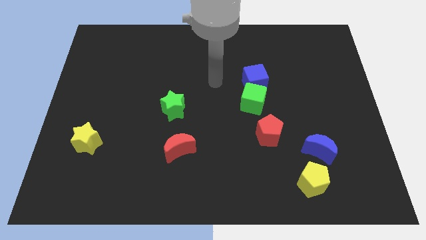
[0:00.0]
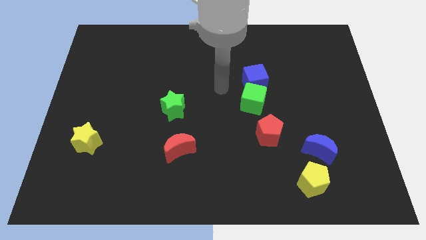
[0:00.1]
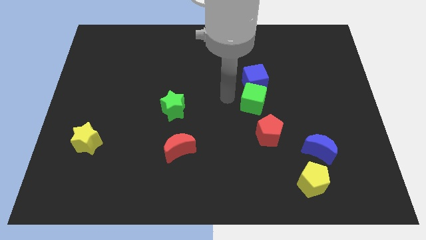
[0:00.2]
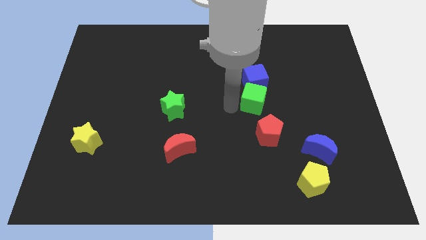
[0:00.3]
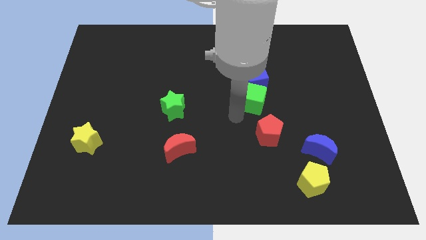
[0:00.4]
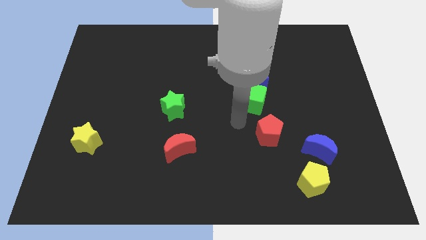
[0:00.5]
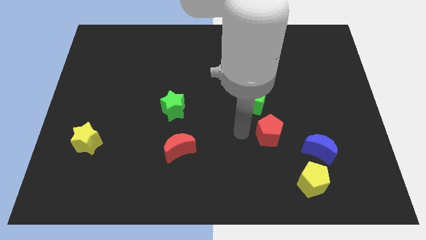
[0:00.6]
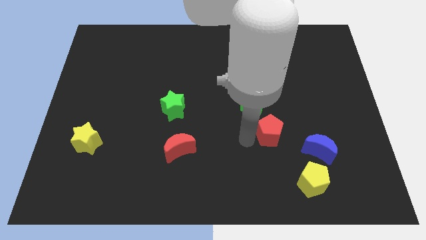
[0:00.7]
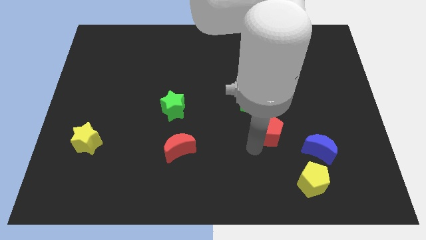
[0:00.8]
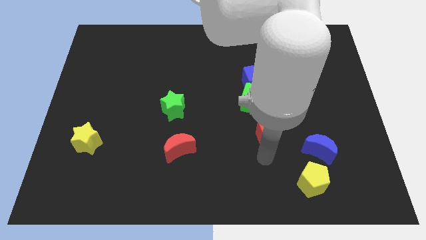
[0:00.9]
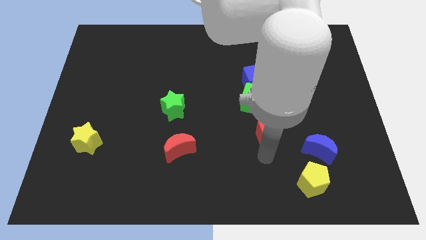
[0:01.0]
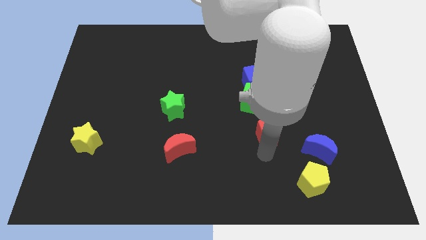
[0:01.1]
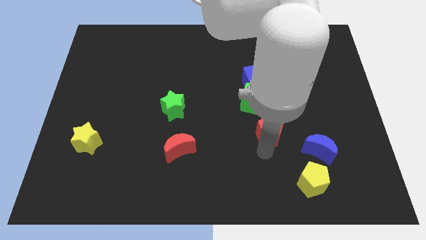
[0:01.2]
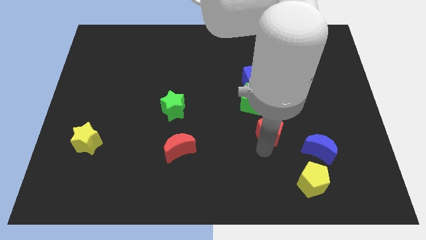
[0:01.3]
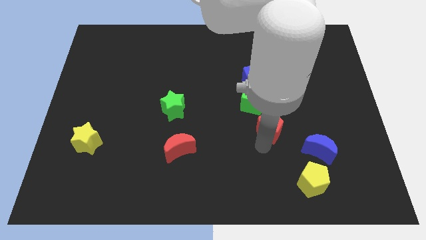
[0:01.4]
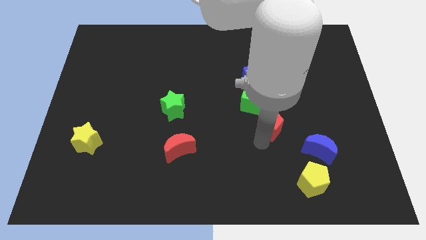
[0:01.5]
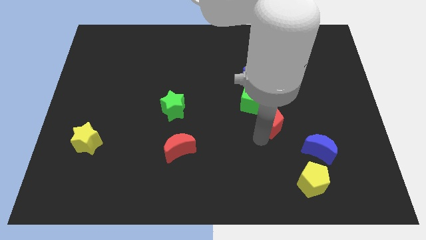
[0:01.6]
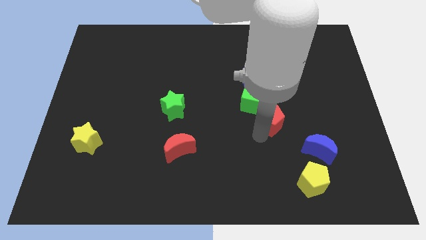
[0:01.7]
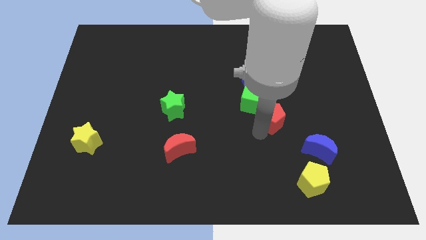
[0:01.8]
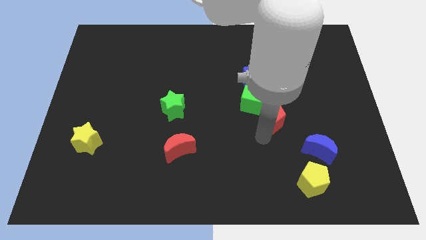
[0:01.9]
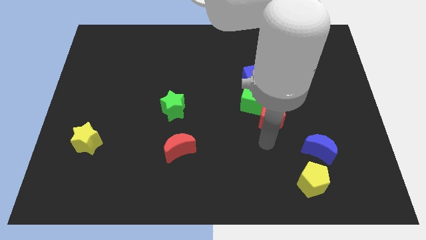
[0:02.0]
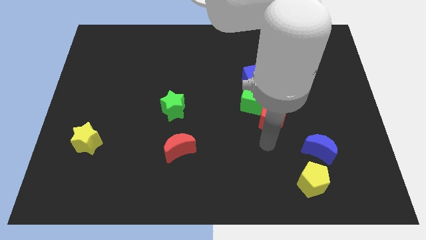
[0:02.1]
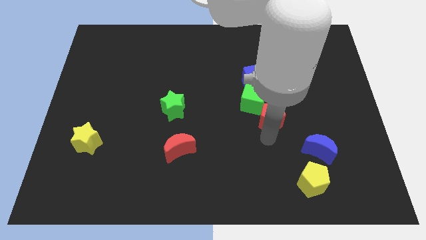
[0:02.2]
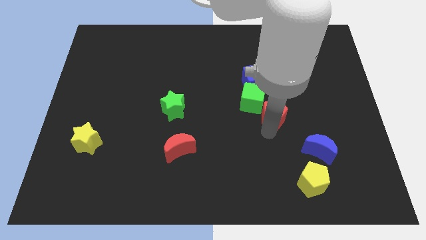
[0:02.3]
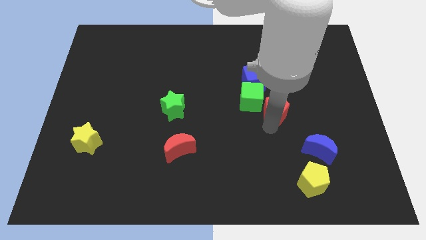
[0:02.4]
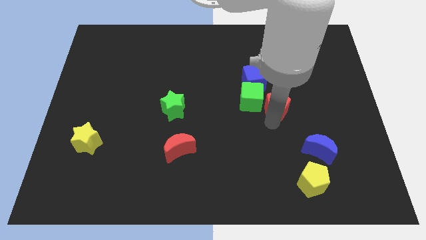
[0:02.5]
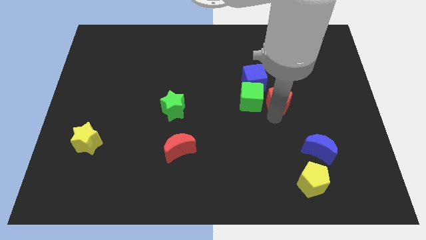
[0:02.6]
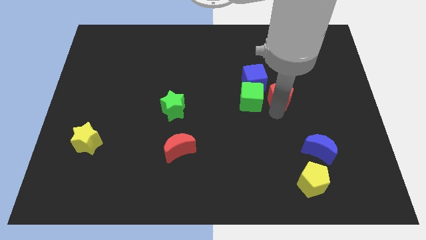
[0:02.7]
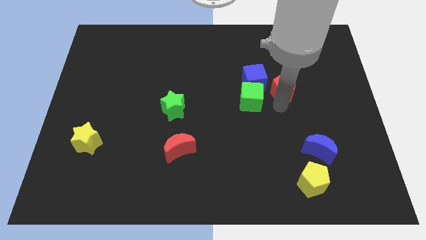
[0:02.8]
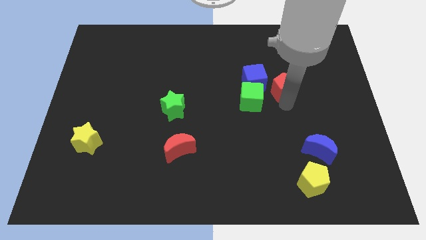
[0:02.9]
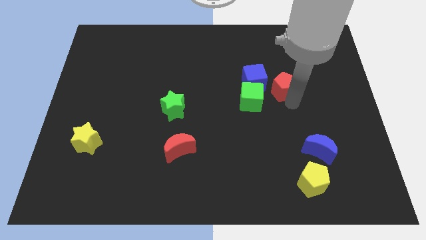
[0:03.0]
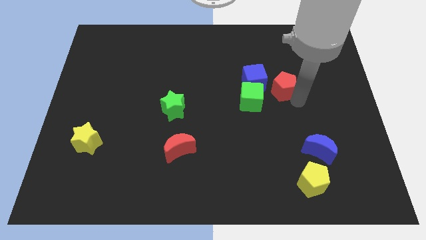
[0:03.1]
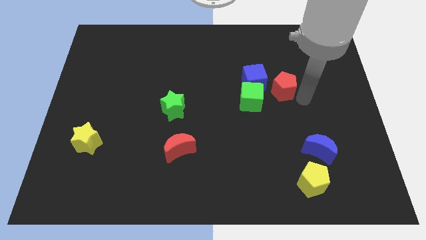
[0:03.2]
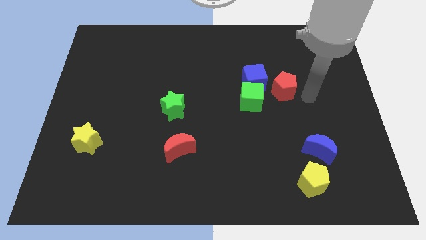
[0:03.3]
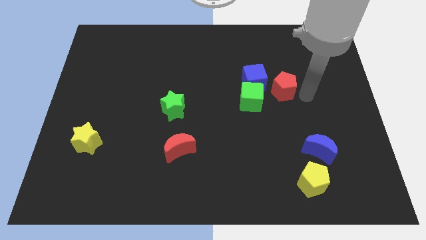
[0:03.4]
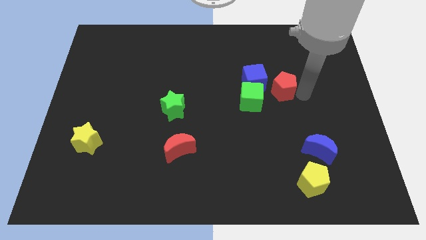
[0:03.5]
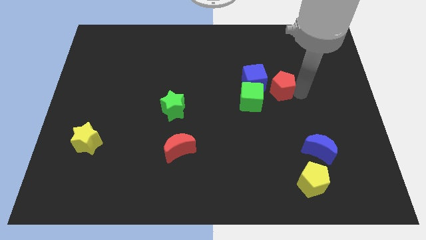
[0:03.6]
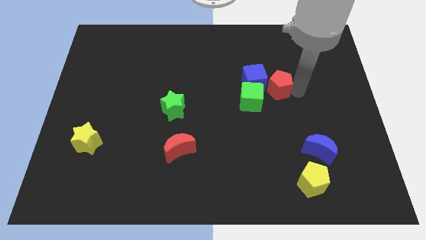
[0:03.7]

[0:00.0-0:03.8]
slide the red pentagon close to the blue cube

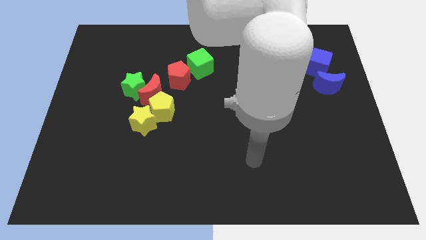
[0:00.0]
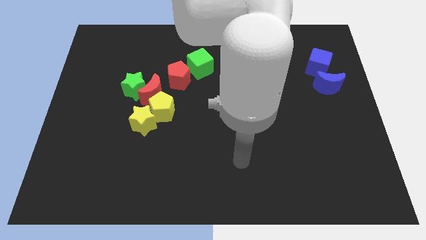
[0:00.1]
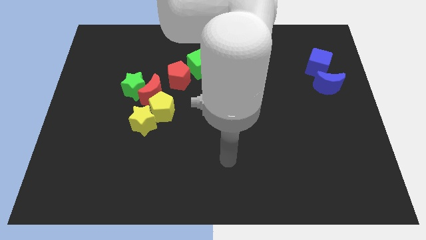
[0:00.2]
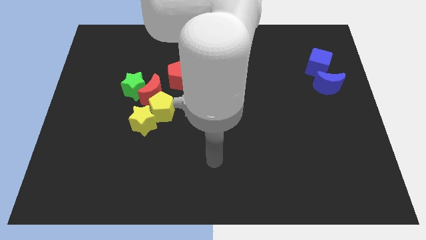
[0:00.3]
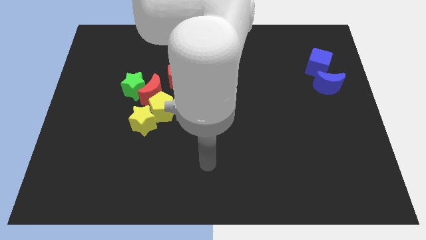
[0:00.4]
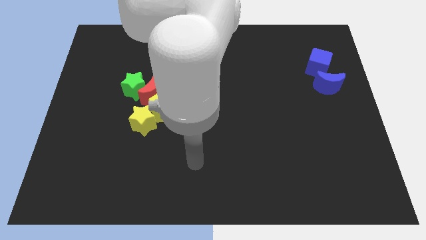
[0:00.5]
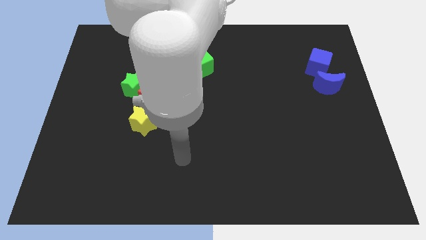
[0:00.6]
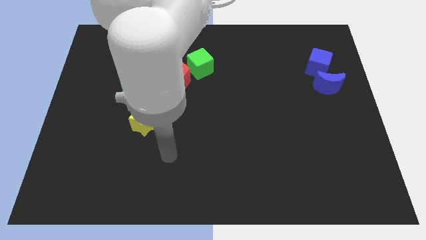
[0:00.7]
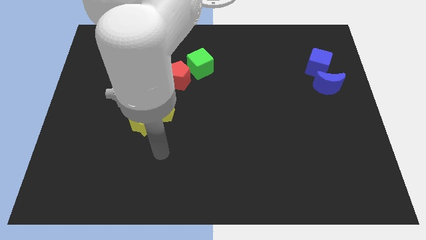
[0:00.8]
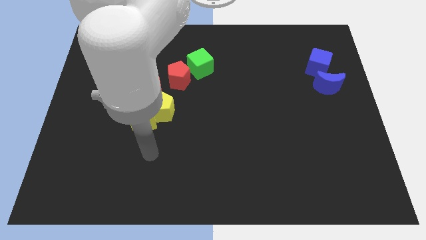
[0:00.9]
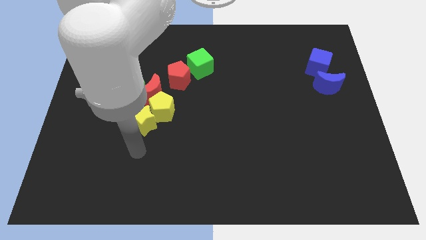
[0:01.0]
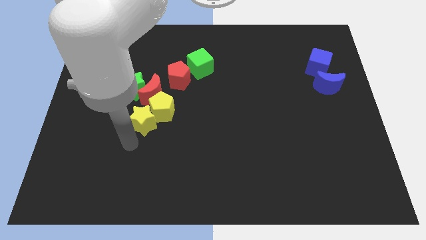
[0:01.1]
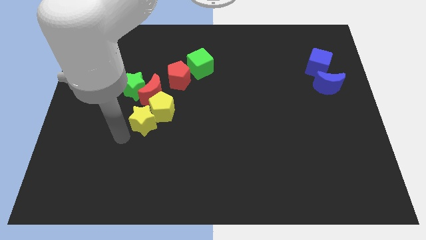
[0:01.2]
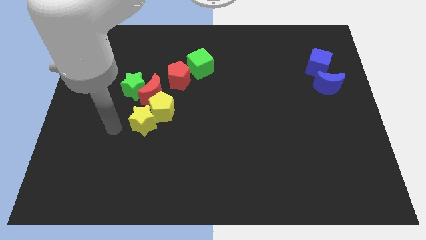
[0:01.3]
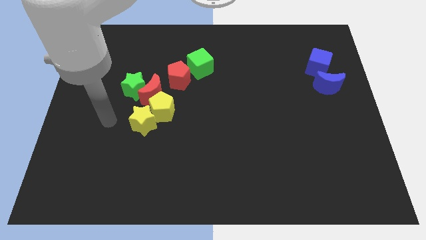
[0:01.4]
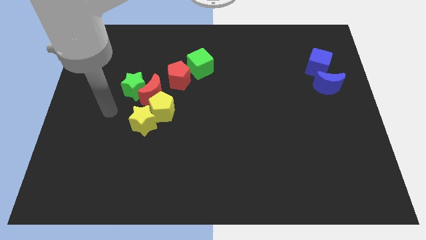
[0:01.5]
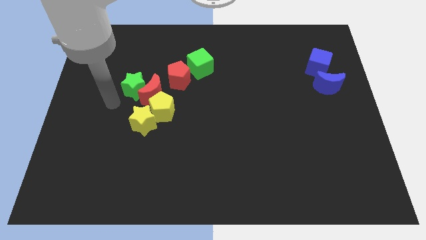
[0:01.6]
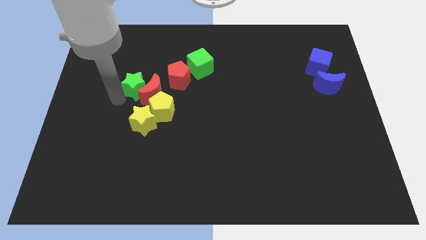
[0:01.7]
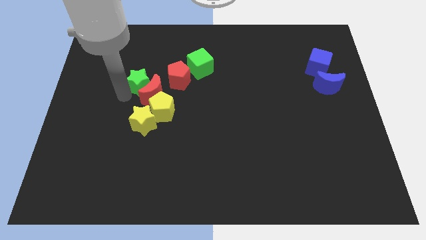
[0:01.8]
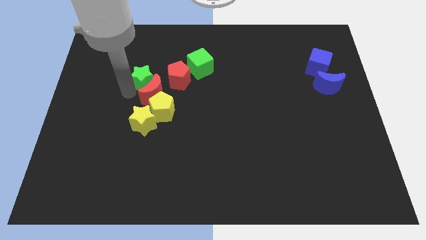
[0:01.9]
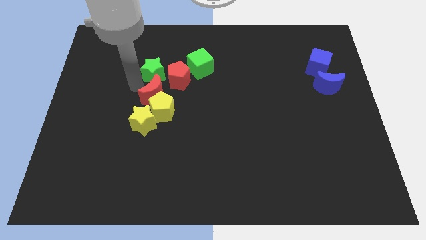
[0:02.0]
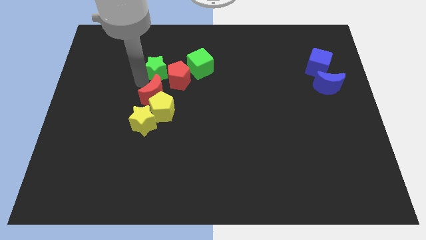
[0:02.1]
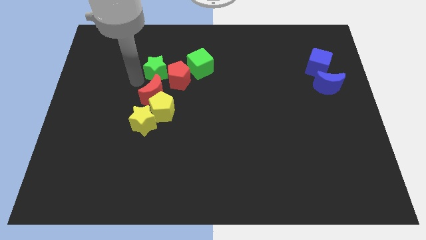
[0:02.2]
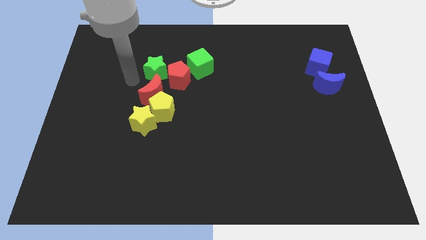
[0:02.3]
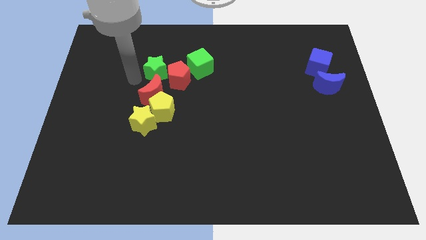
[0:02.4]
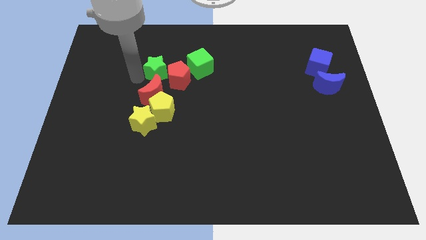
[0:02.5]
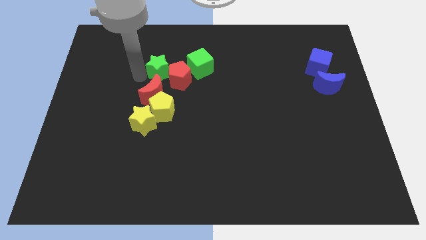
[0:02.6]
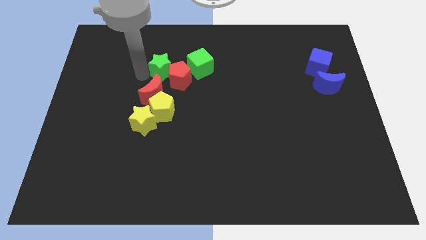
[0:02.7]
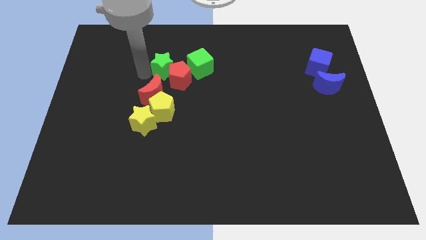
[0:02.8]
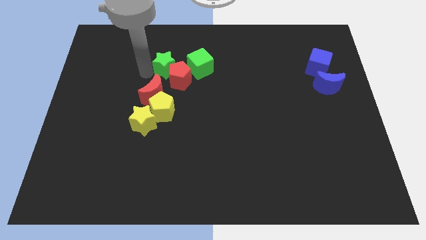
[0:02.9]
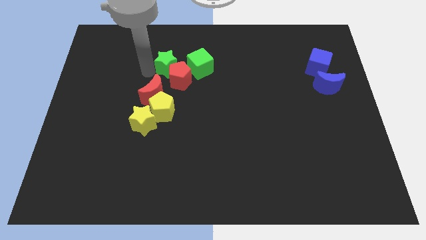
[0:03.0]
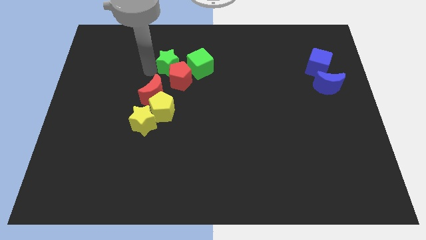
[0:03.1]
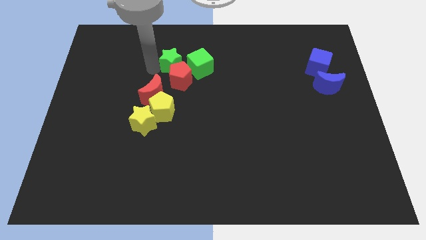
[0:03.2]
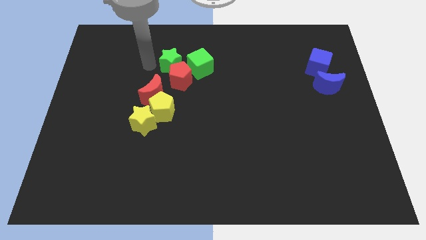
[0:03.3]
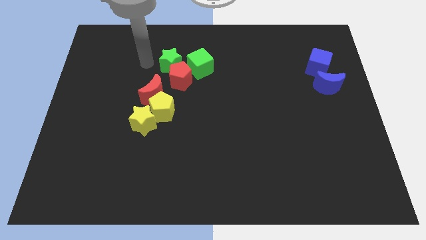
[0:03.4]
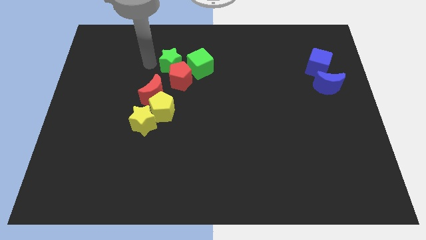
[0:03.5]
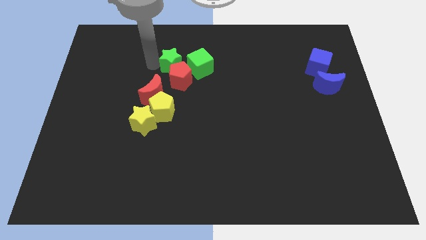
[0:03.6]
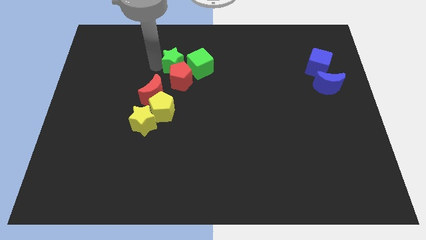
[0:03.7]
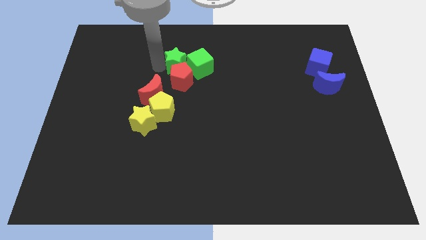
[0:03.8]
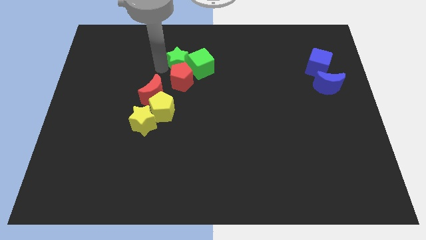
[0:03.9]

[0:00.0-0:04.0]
put the green star next to the green cube
